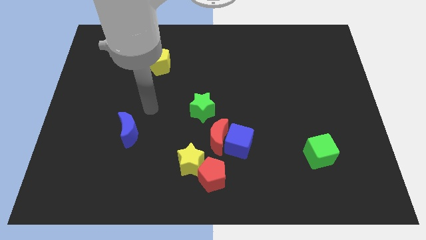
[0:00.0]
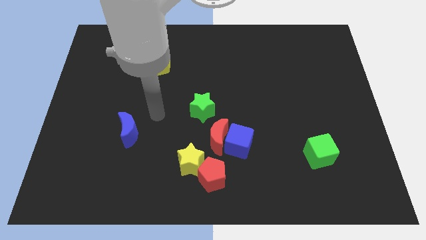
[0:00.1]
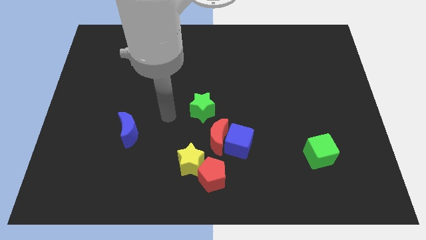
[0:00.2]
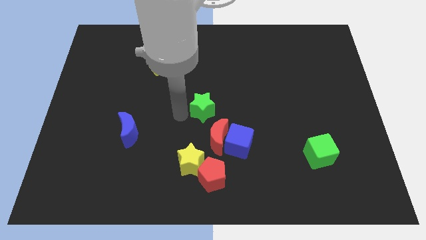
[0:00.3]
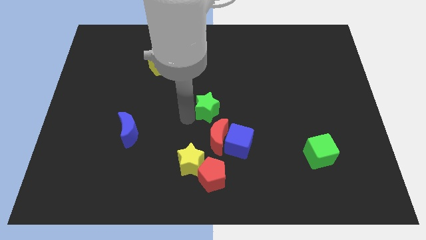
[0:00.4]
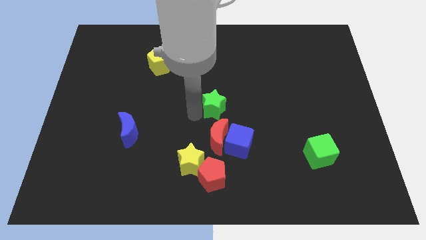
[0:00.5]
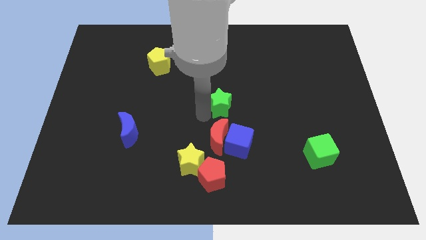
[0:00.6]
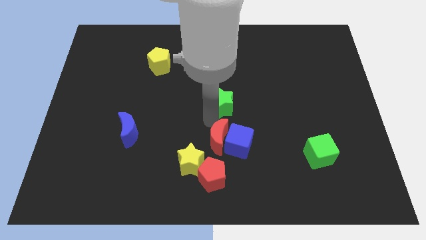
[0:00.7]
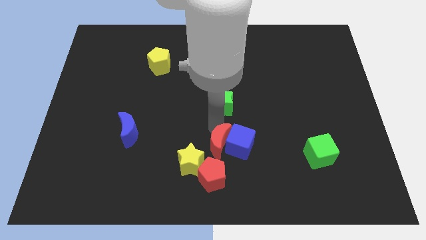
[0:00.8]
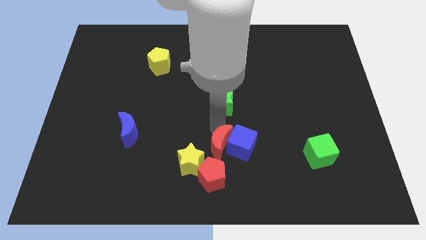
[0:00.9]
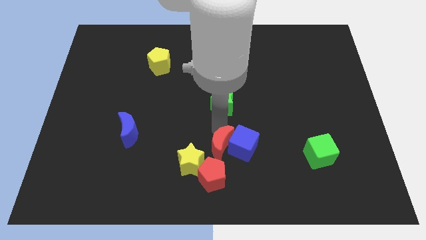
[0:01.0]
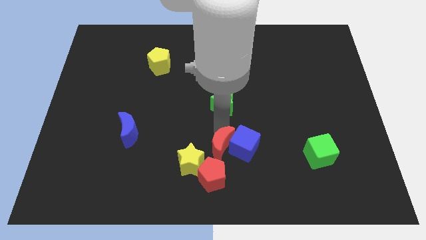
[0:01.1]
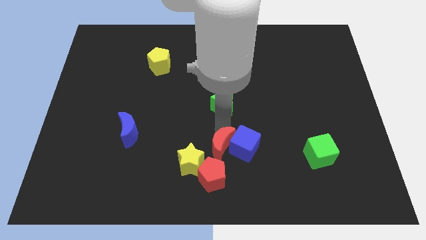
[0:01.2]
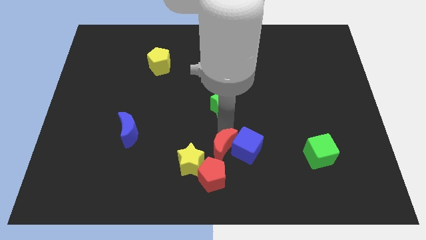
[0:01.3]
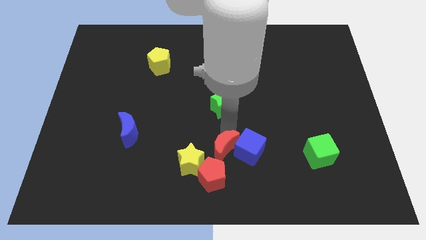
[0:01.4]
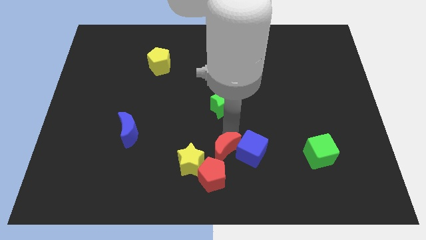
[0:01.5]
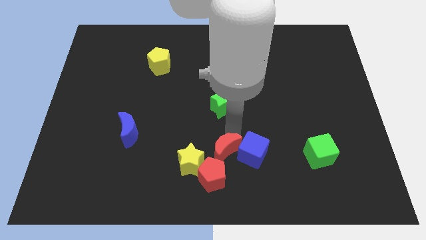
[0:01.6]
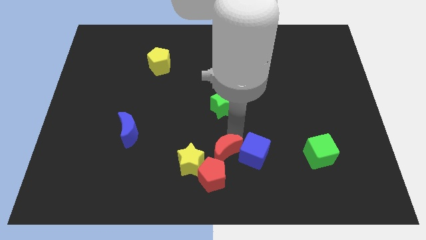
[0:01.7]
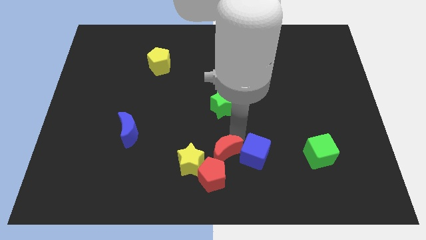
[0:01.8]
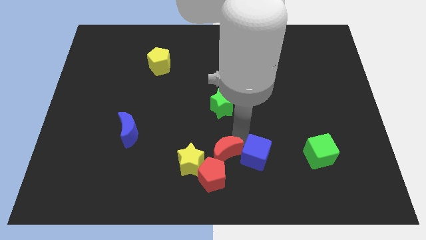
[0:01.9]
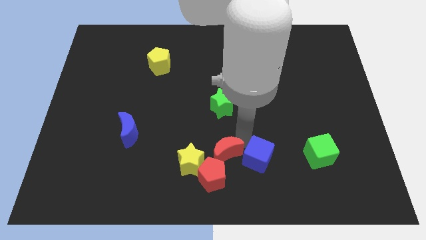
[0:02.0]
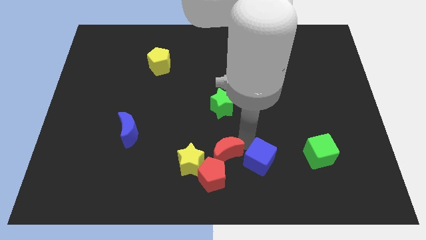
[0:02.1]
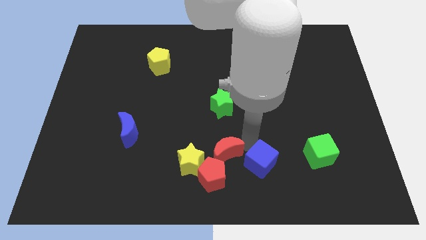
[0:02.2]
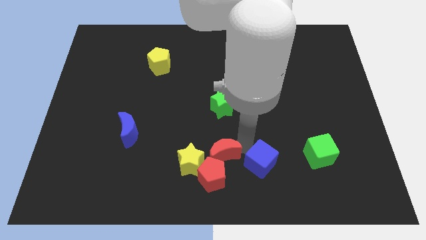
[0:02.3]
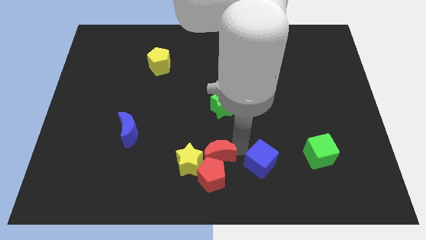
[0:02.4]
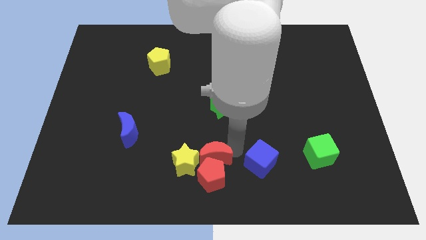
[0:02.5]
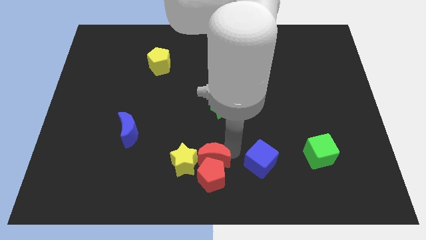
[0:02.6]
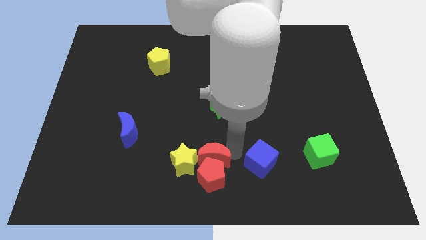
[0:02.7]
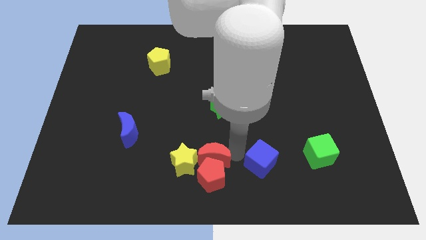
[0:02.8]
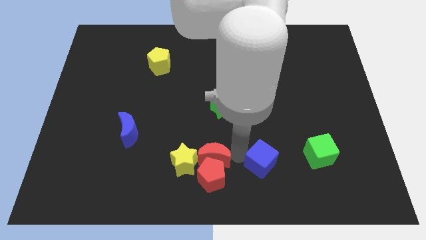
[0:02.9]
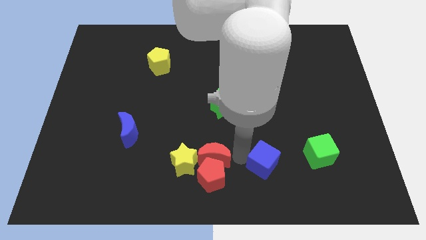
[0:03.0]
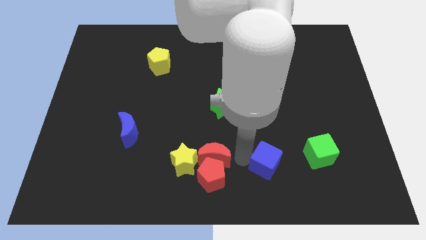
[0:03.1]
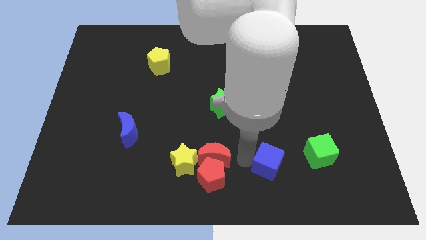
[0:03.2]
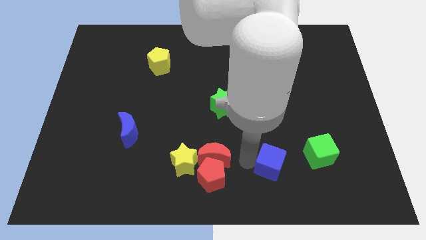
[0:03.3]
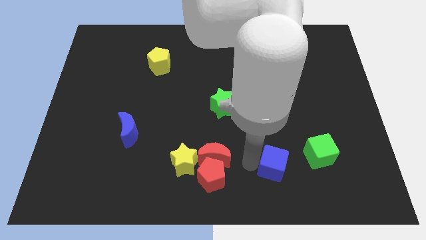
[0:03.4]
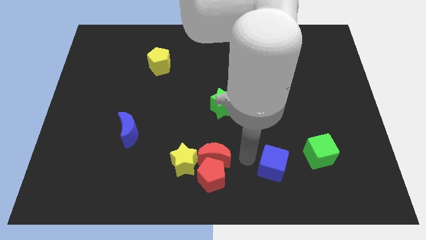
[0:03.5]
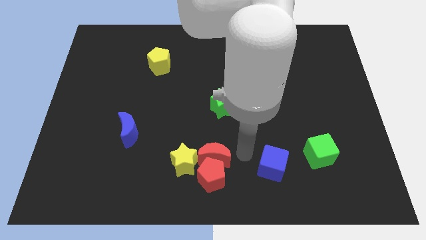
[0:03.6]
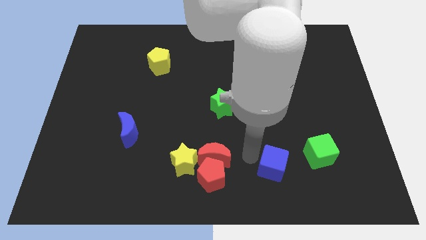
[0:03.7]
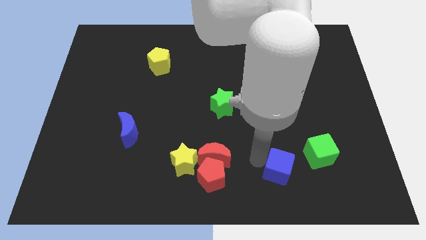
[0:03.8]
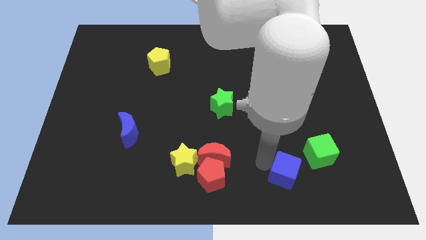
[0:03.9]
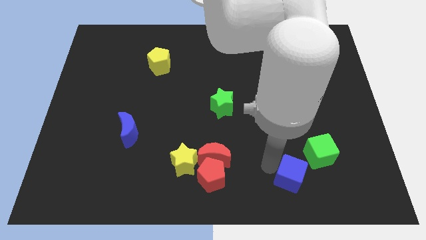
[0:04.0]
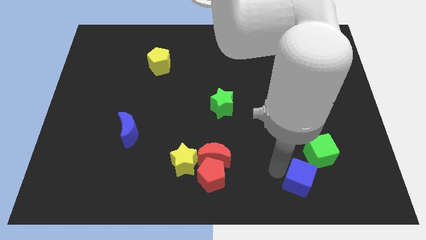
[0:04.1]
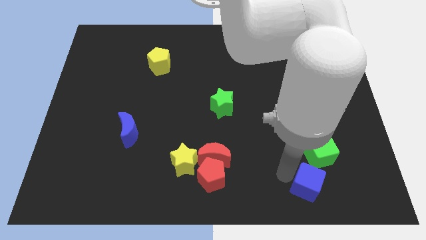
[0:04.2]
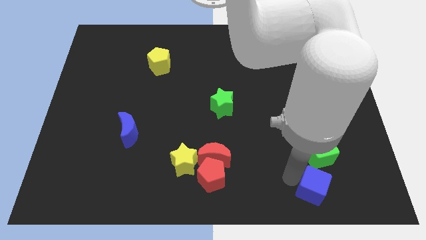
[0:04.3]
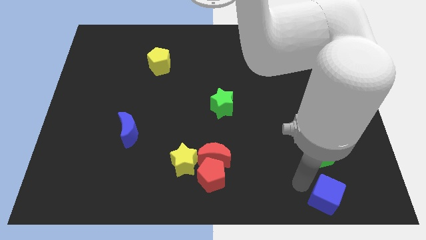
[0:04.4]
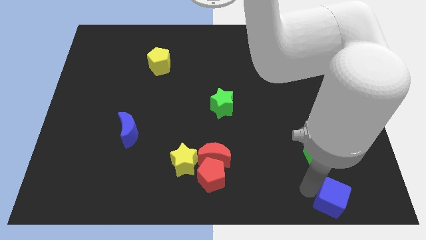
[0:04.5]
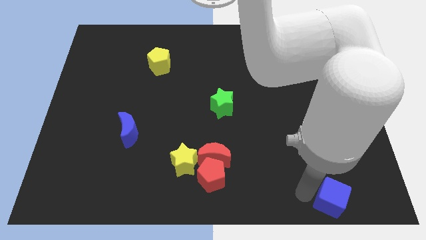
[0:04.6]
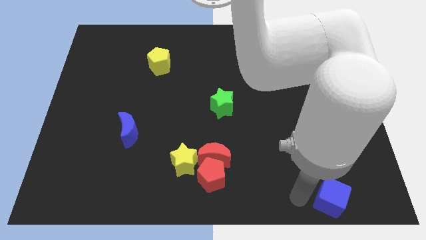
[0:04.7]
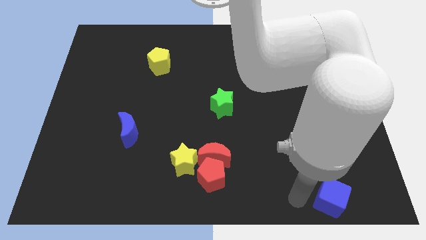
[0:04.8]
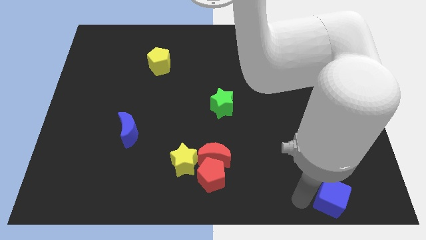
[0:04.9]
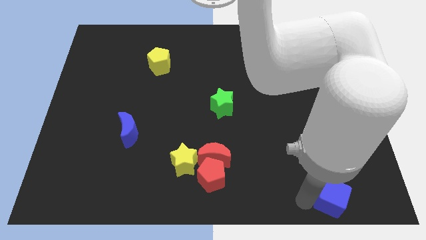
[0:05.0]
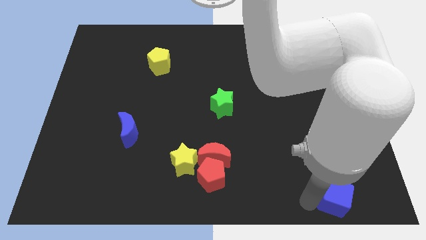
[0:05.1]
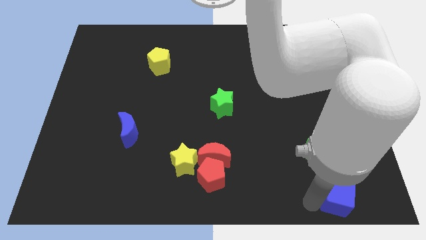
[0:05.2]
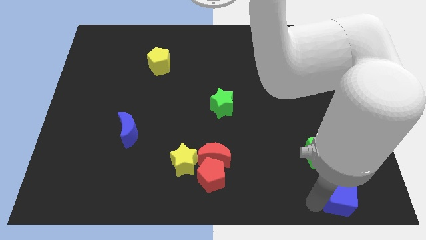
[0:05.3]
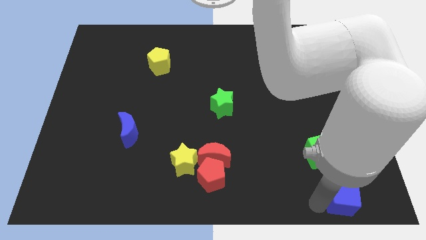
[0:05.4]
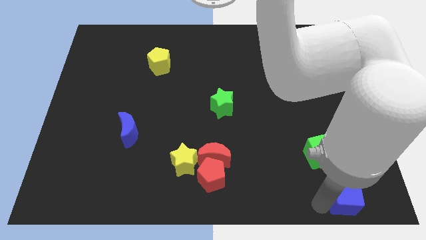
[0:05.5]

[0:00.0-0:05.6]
move the blue cube to the bottom right corner
